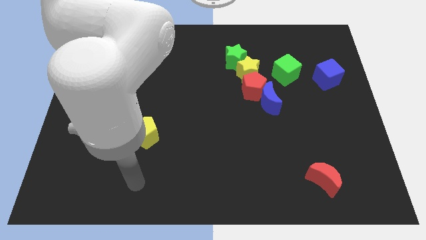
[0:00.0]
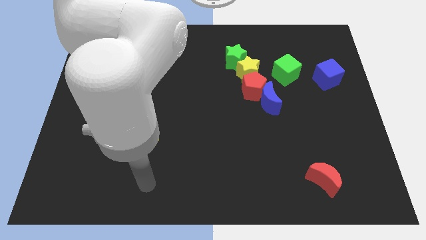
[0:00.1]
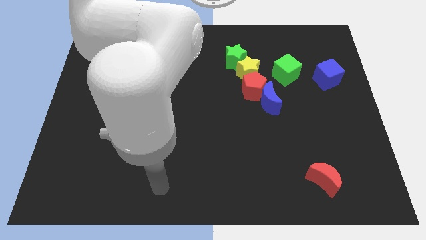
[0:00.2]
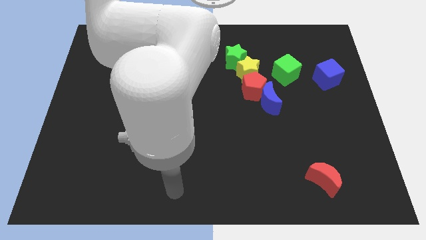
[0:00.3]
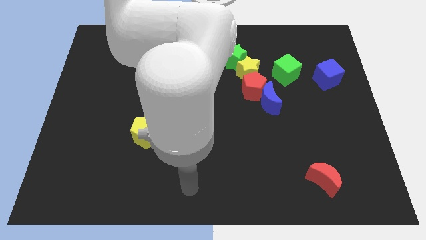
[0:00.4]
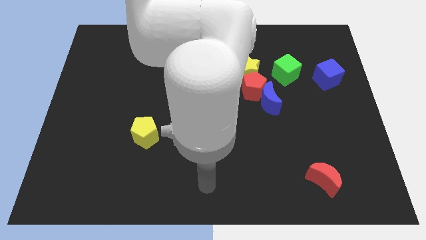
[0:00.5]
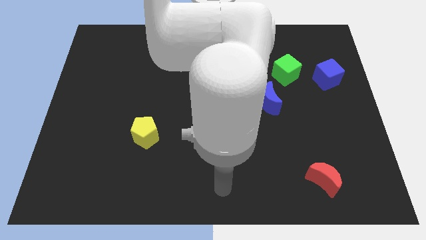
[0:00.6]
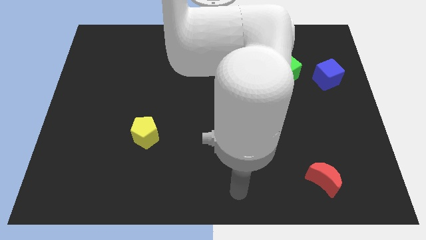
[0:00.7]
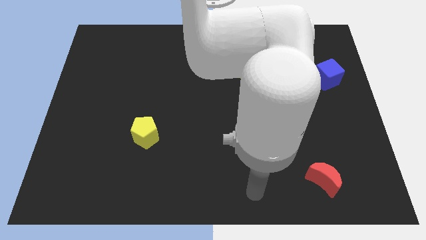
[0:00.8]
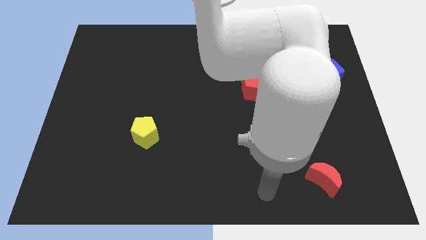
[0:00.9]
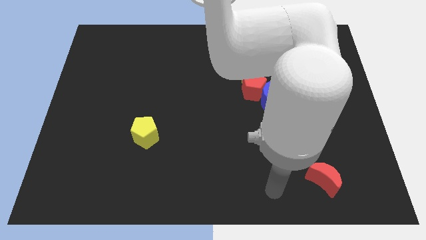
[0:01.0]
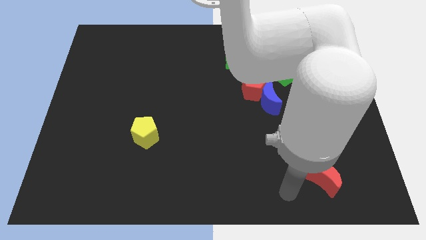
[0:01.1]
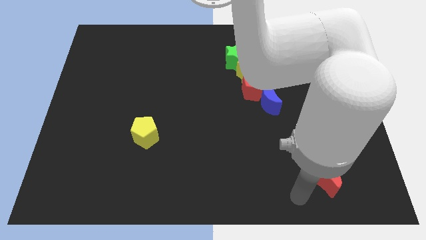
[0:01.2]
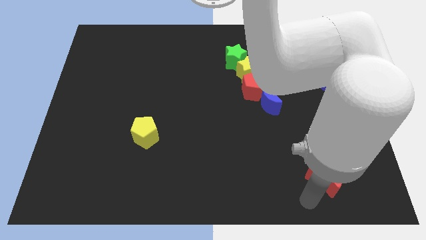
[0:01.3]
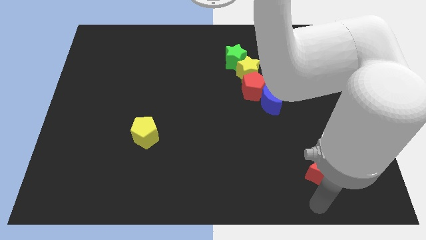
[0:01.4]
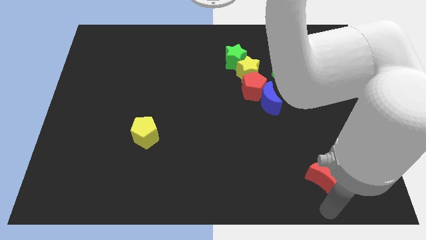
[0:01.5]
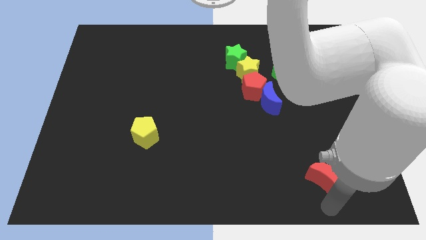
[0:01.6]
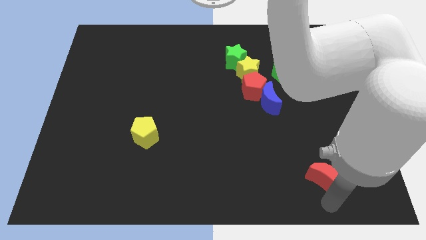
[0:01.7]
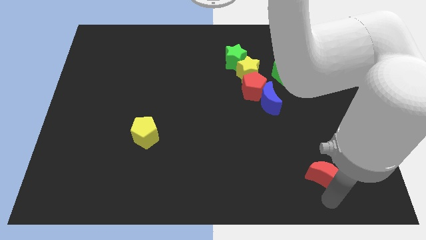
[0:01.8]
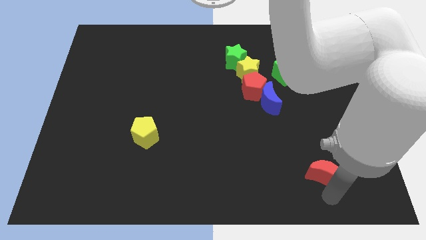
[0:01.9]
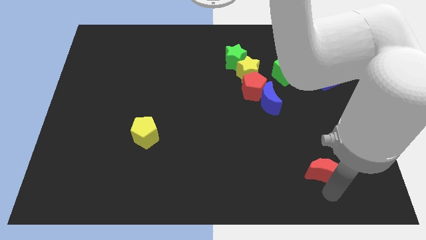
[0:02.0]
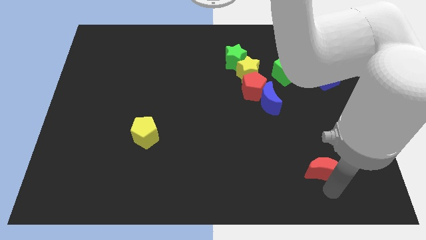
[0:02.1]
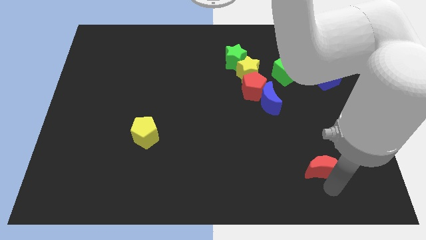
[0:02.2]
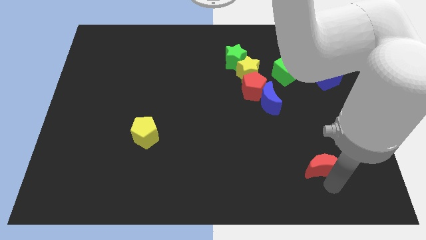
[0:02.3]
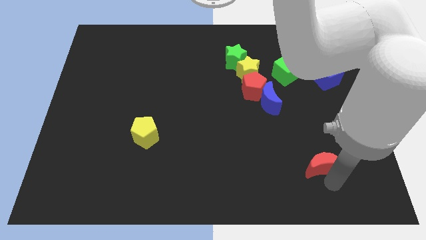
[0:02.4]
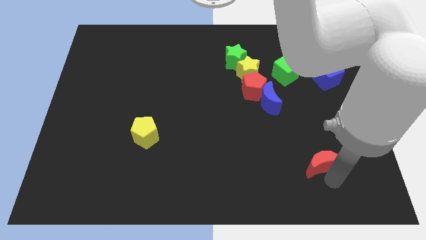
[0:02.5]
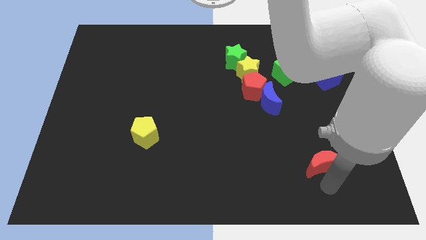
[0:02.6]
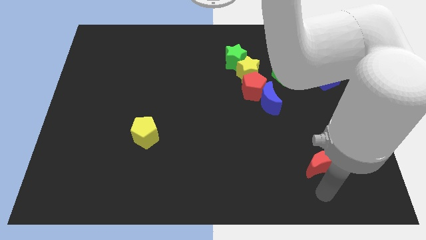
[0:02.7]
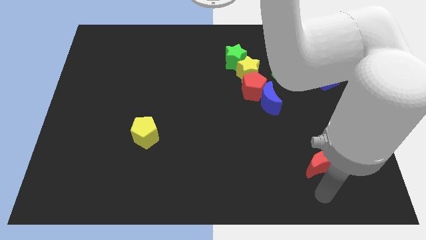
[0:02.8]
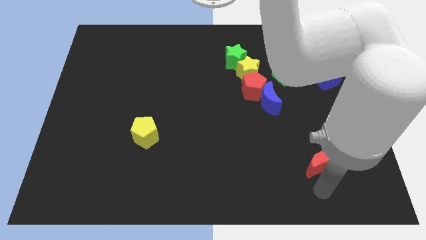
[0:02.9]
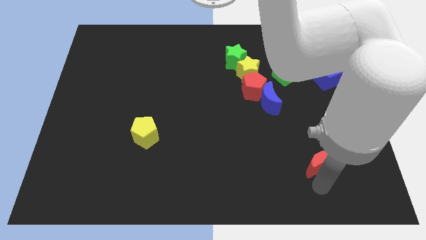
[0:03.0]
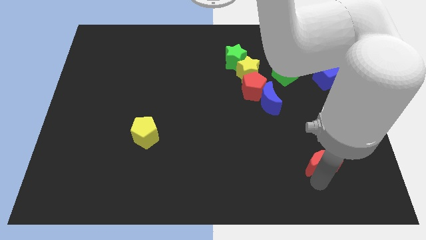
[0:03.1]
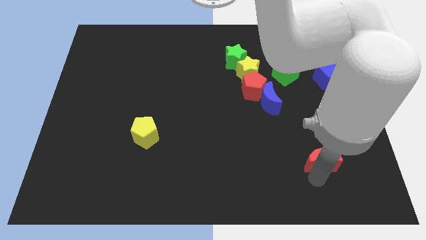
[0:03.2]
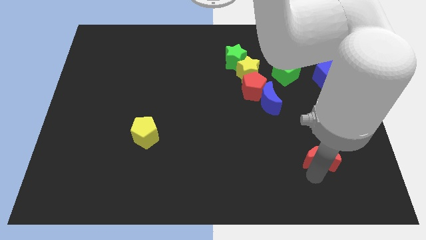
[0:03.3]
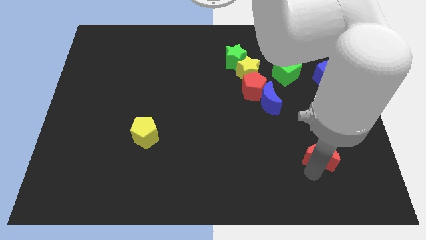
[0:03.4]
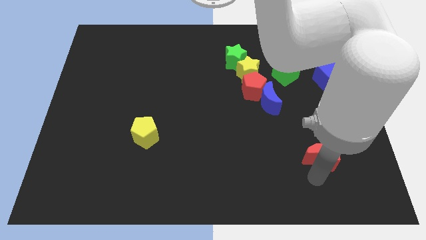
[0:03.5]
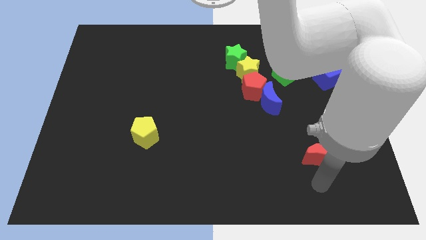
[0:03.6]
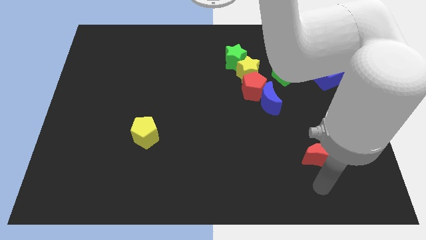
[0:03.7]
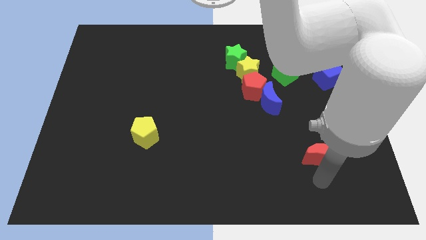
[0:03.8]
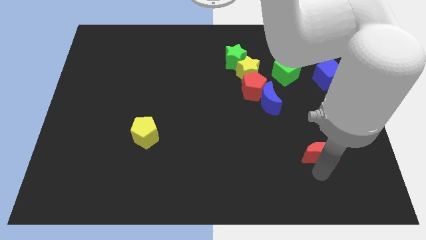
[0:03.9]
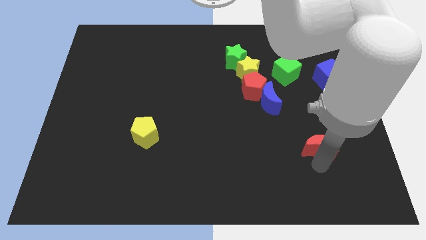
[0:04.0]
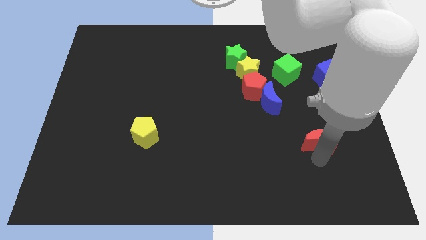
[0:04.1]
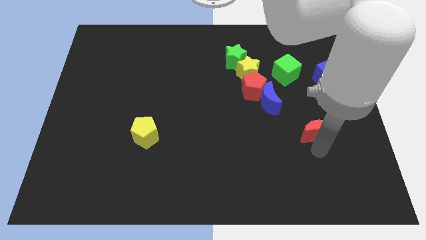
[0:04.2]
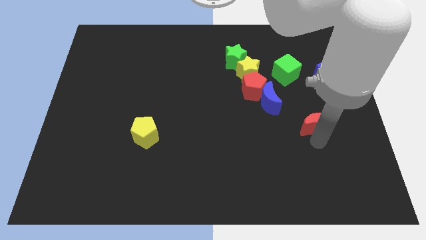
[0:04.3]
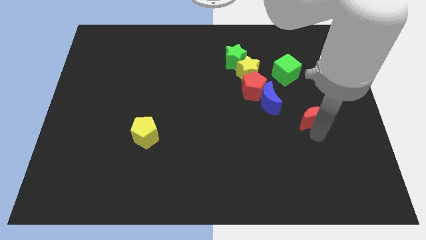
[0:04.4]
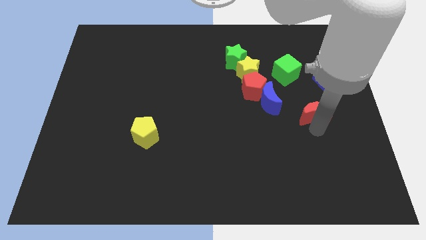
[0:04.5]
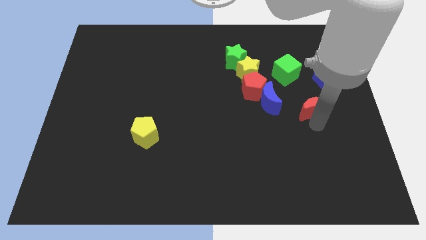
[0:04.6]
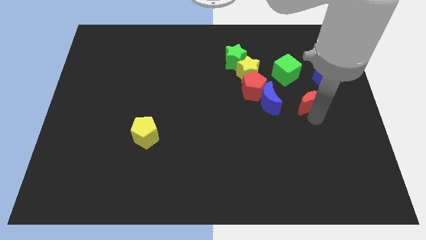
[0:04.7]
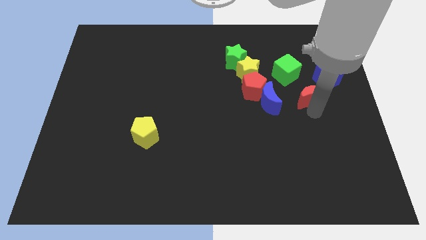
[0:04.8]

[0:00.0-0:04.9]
slide the red moon up

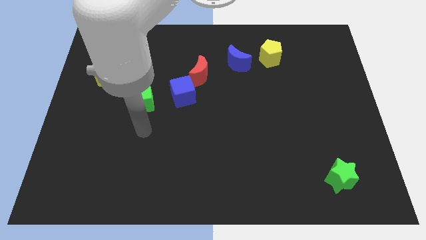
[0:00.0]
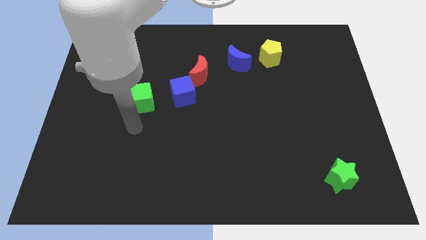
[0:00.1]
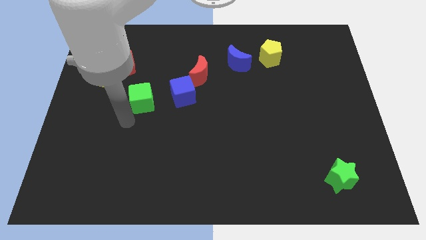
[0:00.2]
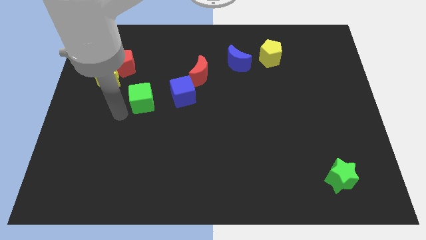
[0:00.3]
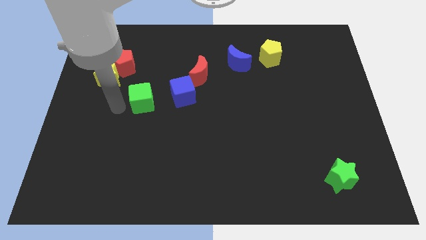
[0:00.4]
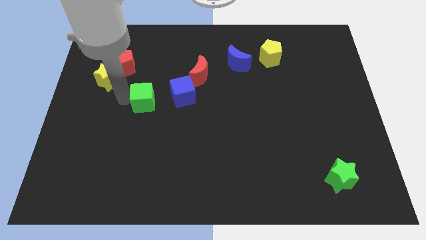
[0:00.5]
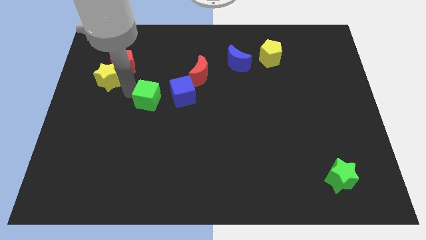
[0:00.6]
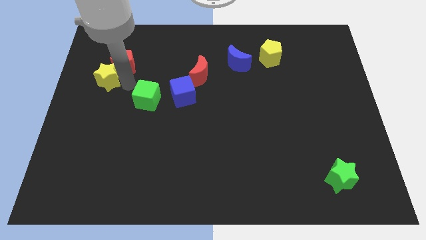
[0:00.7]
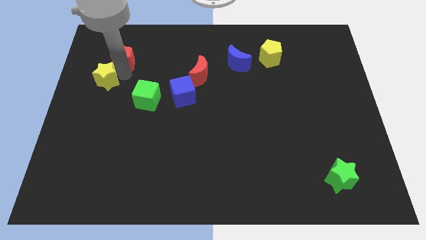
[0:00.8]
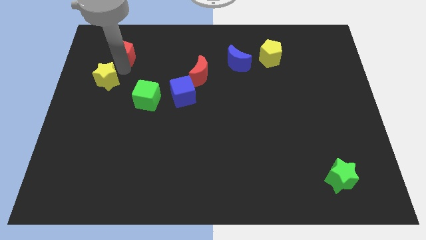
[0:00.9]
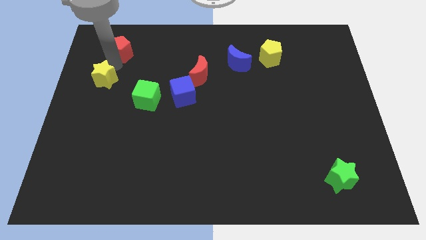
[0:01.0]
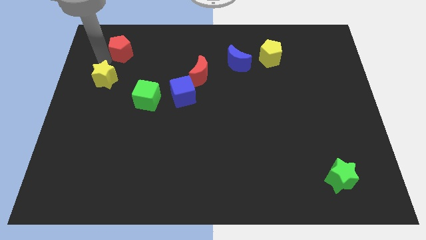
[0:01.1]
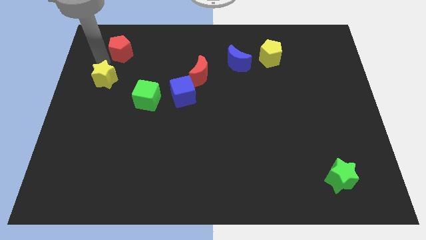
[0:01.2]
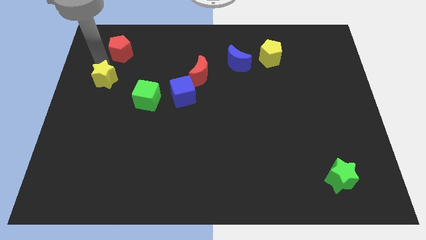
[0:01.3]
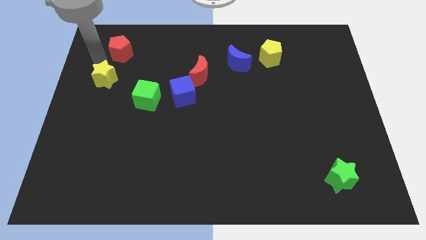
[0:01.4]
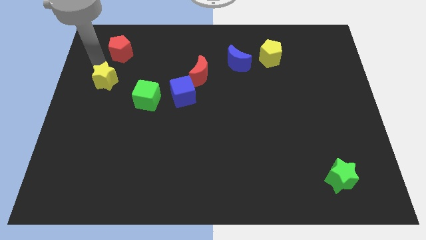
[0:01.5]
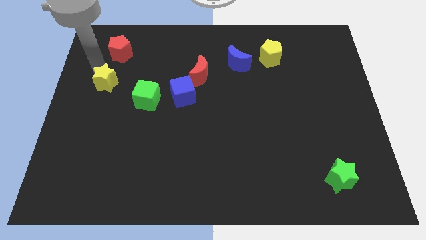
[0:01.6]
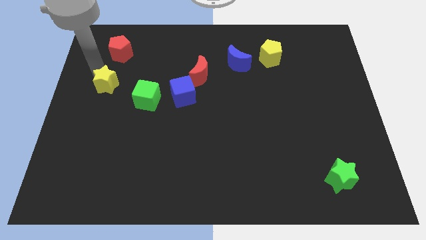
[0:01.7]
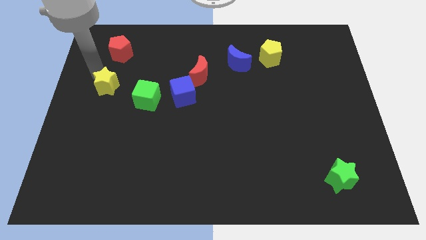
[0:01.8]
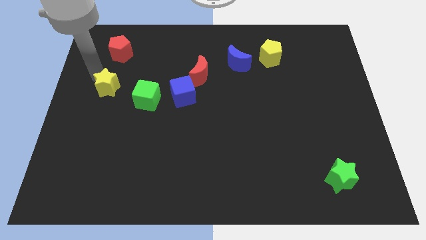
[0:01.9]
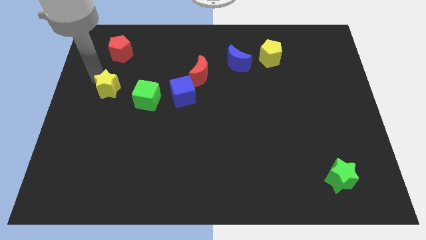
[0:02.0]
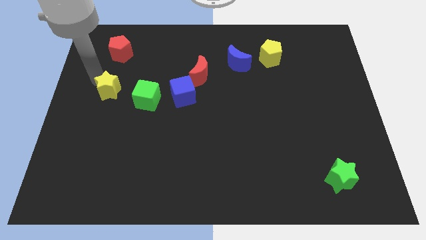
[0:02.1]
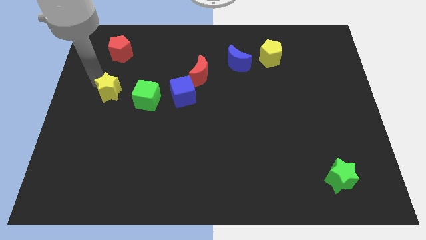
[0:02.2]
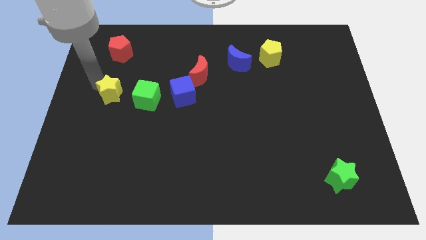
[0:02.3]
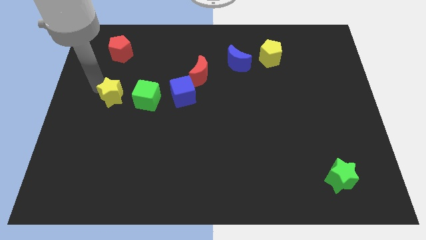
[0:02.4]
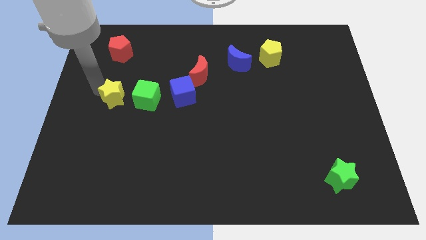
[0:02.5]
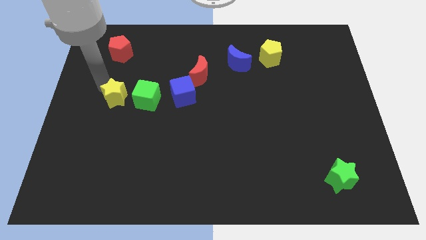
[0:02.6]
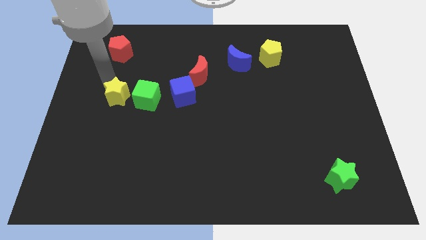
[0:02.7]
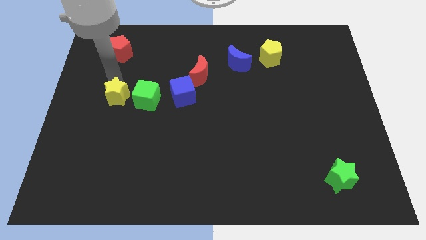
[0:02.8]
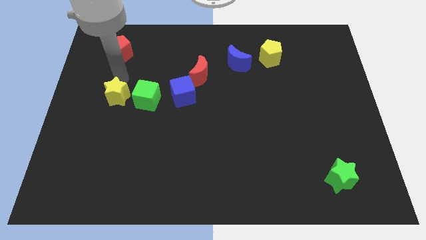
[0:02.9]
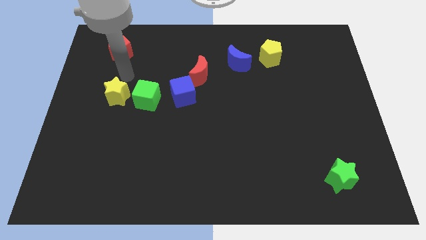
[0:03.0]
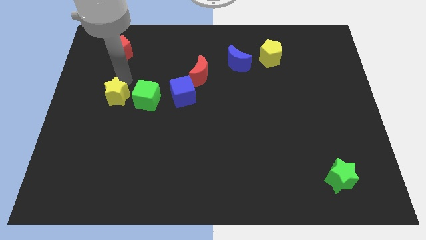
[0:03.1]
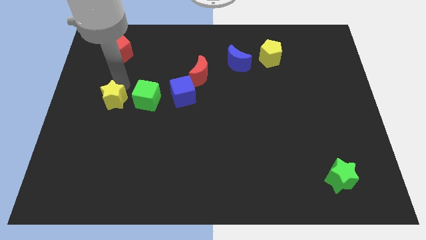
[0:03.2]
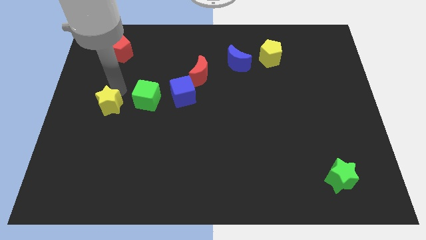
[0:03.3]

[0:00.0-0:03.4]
move the yellow star downwards a bit
